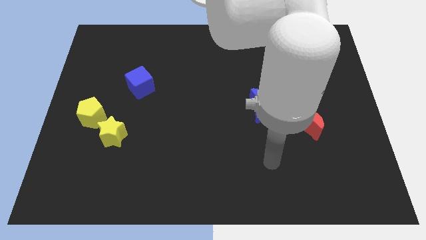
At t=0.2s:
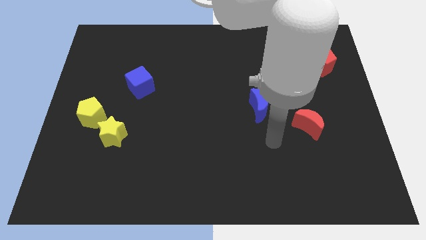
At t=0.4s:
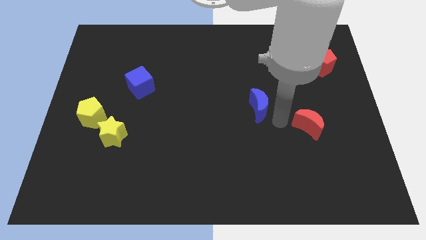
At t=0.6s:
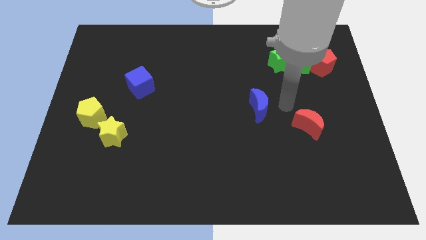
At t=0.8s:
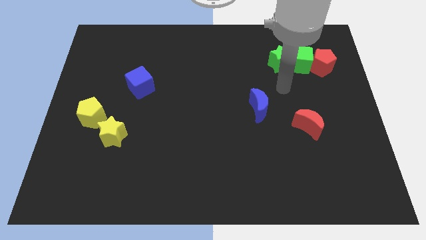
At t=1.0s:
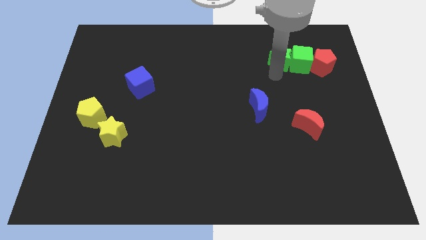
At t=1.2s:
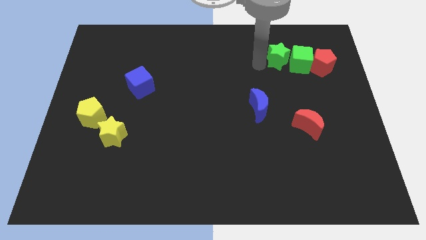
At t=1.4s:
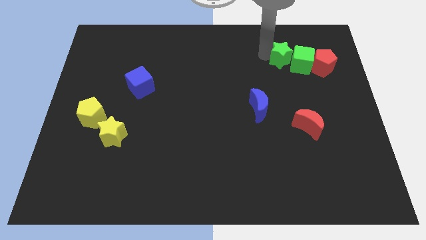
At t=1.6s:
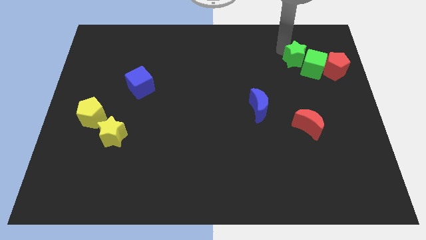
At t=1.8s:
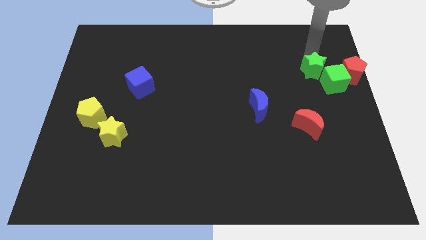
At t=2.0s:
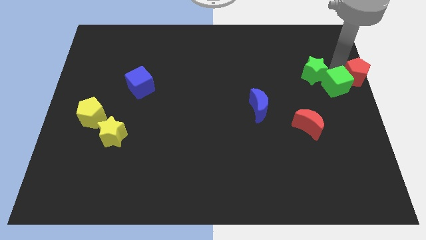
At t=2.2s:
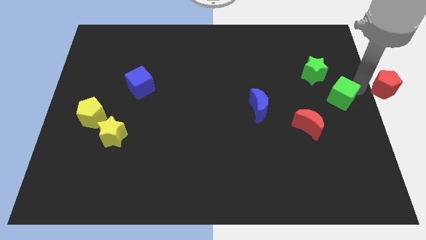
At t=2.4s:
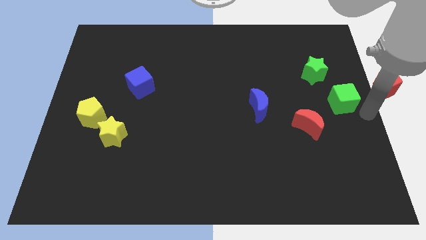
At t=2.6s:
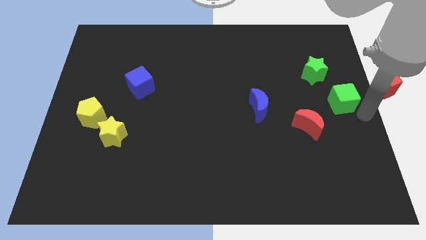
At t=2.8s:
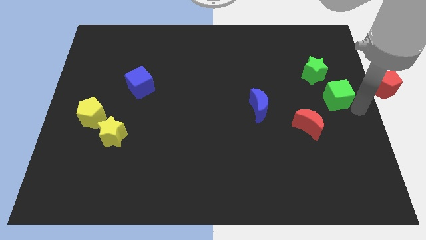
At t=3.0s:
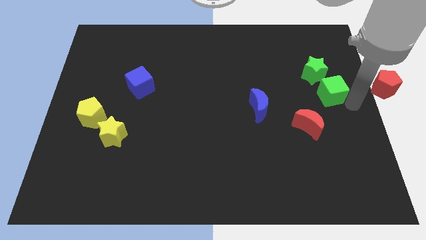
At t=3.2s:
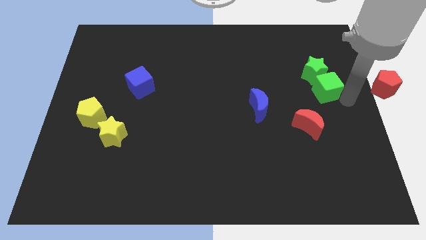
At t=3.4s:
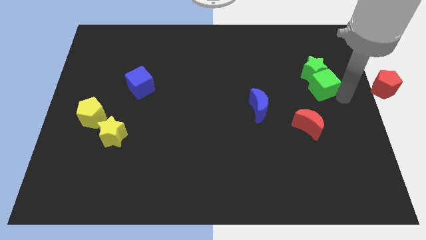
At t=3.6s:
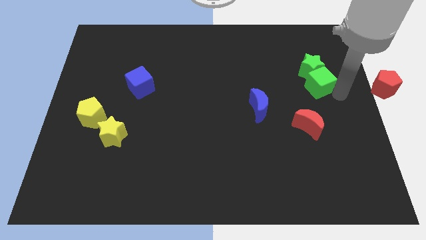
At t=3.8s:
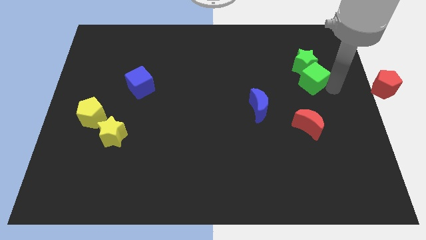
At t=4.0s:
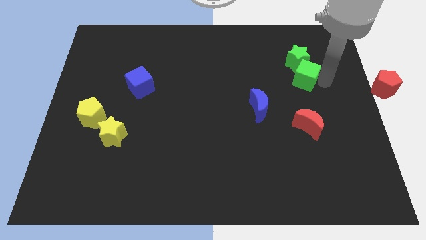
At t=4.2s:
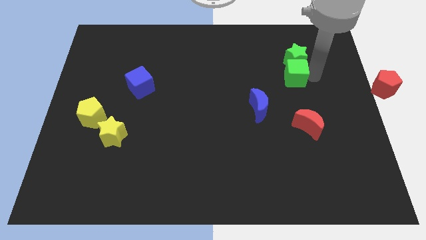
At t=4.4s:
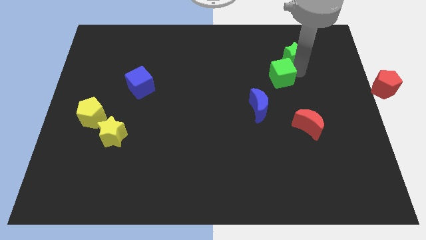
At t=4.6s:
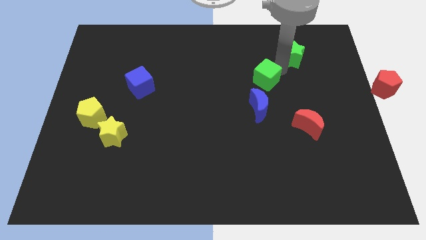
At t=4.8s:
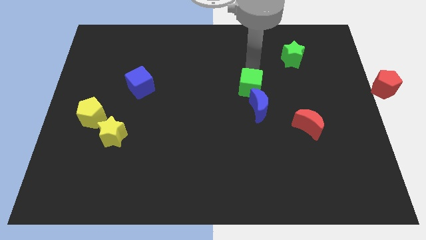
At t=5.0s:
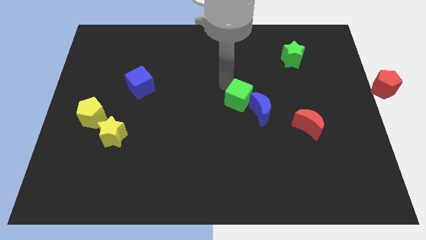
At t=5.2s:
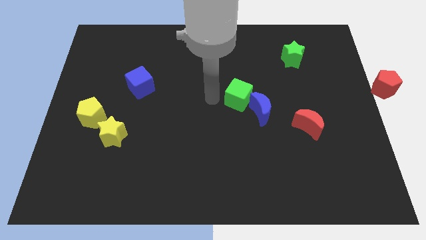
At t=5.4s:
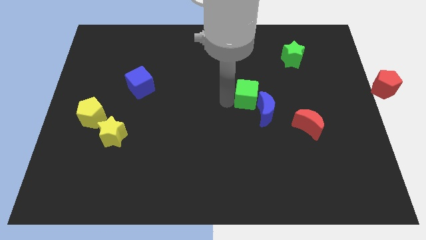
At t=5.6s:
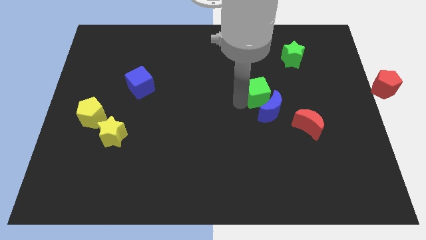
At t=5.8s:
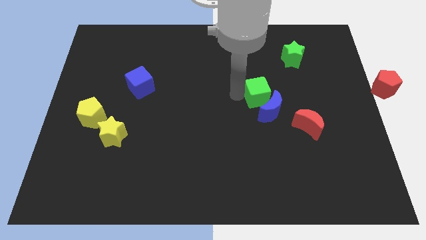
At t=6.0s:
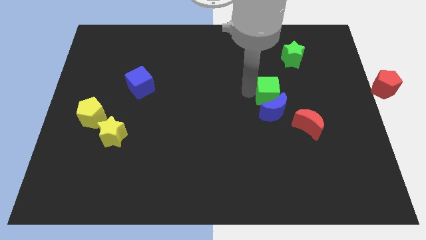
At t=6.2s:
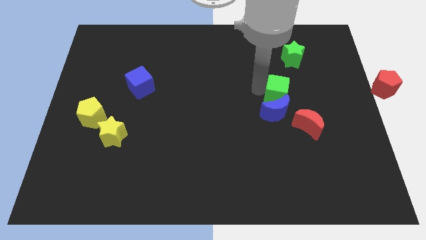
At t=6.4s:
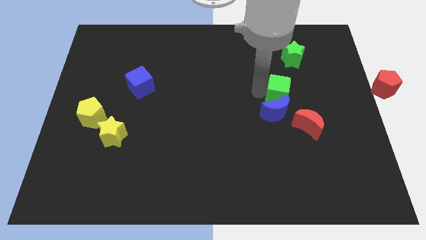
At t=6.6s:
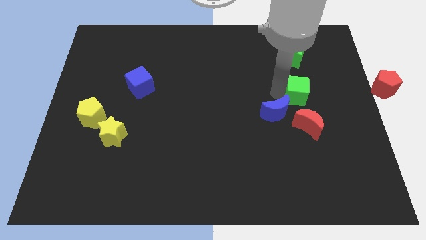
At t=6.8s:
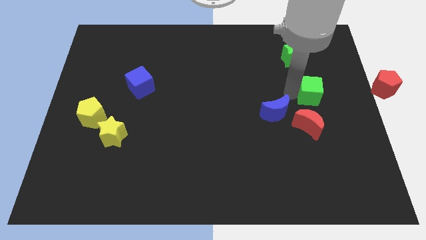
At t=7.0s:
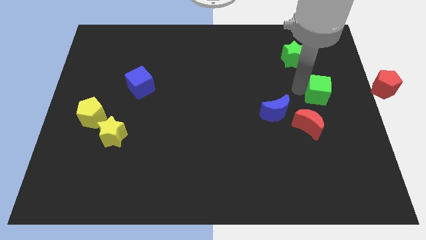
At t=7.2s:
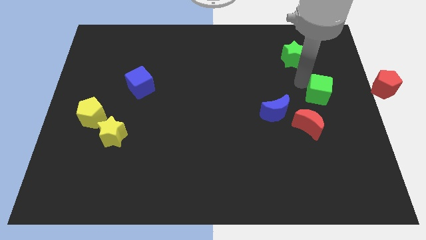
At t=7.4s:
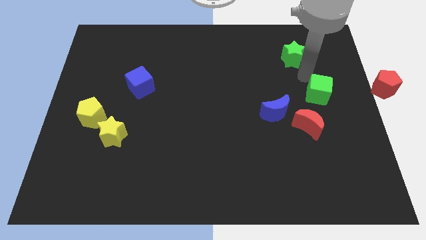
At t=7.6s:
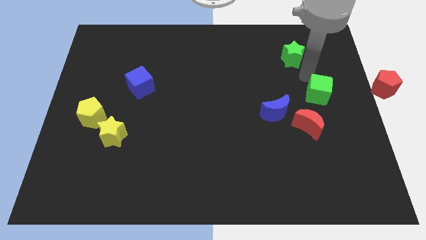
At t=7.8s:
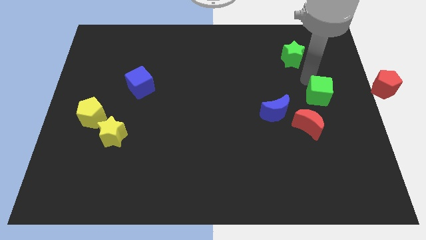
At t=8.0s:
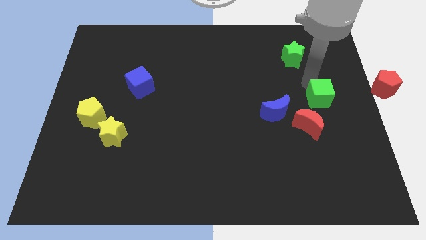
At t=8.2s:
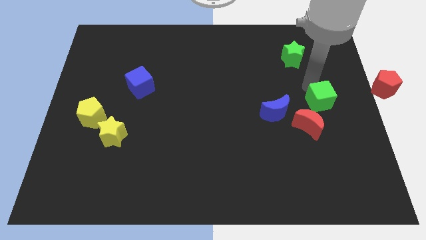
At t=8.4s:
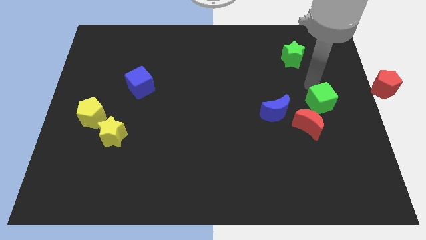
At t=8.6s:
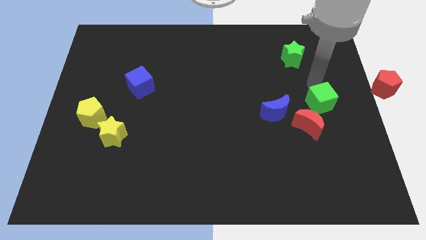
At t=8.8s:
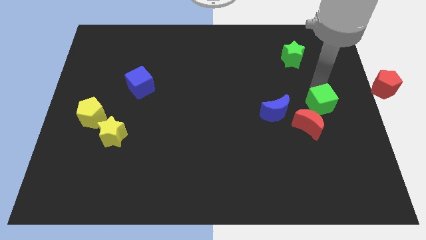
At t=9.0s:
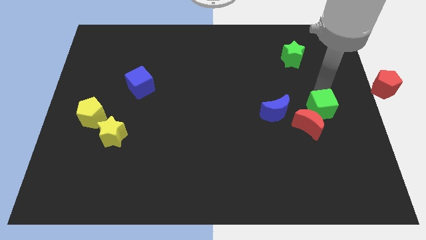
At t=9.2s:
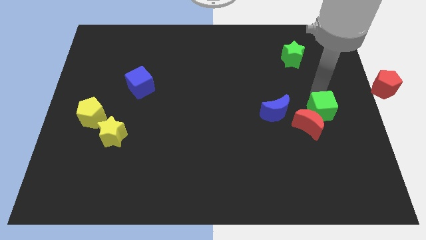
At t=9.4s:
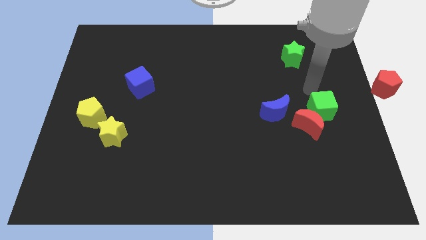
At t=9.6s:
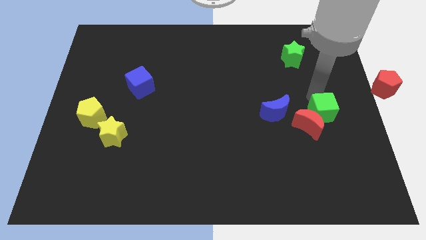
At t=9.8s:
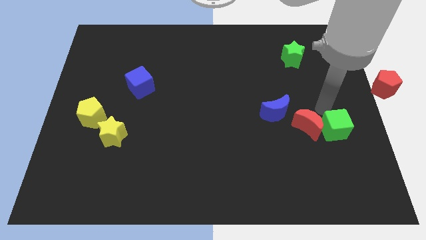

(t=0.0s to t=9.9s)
move the green cube downwards

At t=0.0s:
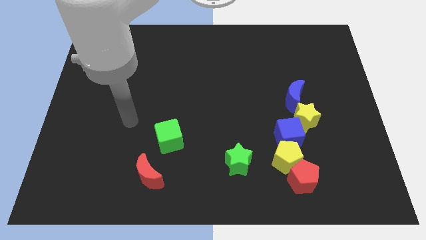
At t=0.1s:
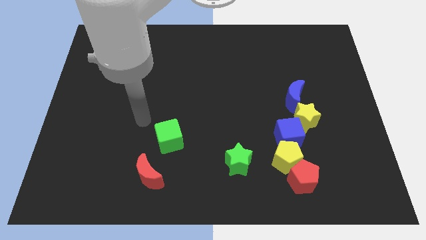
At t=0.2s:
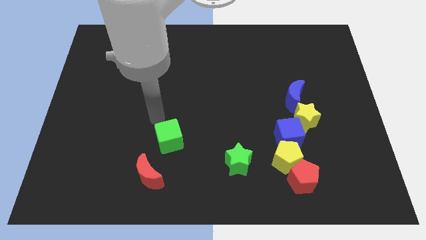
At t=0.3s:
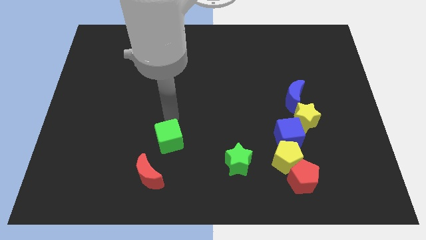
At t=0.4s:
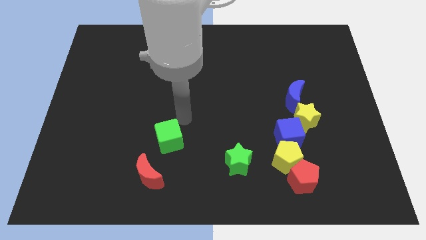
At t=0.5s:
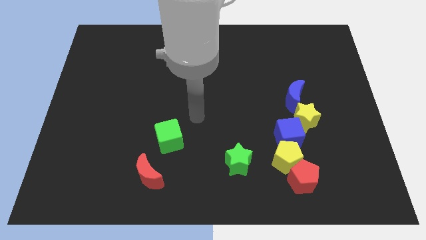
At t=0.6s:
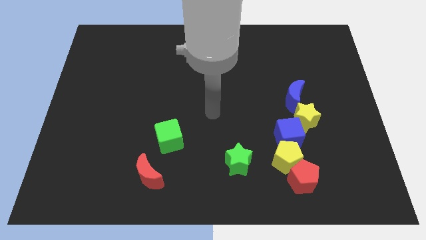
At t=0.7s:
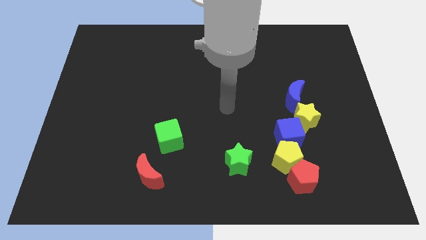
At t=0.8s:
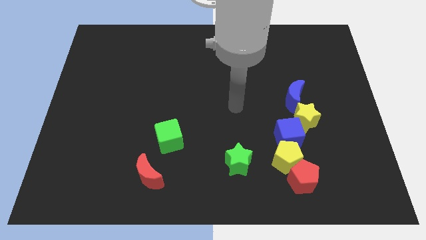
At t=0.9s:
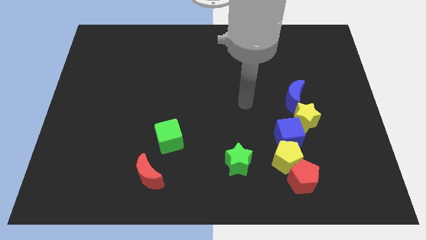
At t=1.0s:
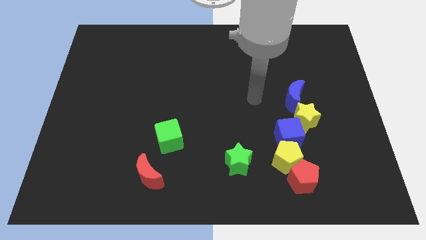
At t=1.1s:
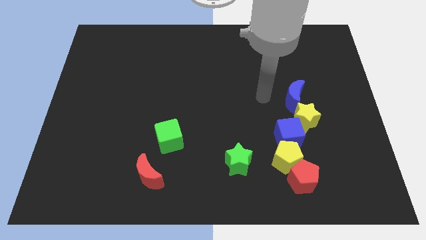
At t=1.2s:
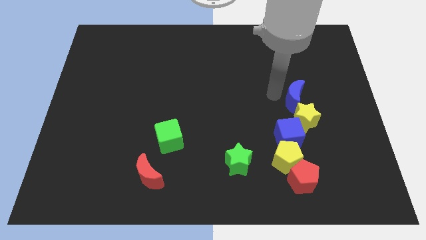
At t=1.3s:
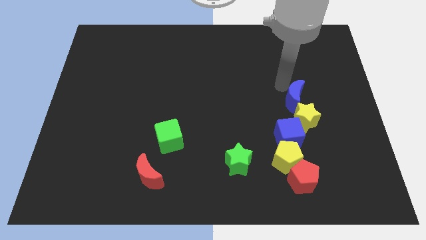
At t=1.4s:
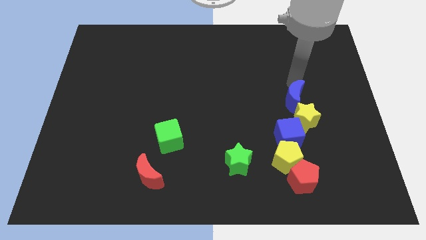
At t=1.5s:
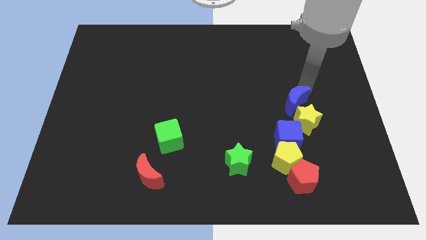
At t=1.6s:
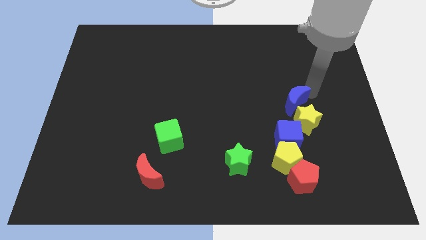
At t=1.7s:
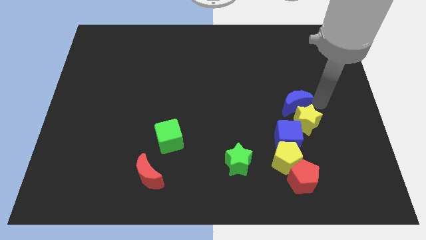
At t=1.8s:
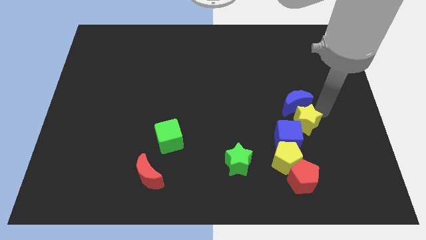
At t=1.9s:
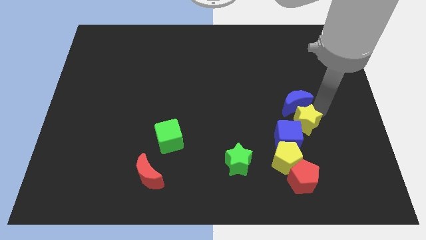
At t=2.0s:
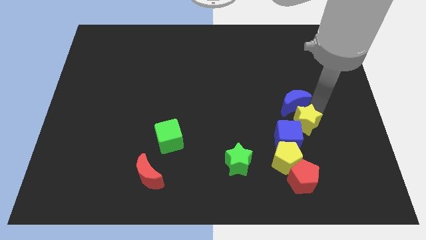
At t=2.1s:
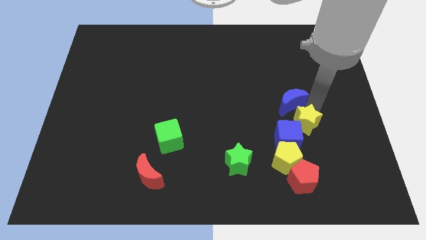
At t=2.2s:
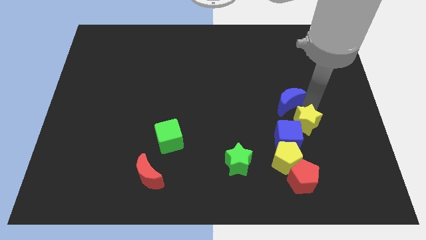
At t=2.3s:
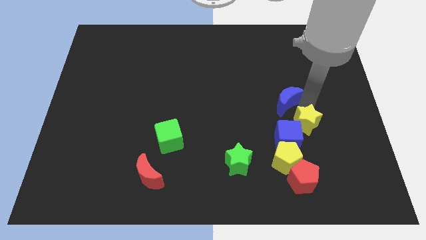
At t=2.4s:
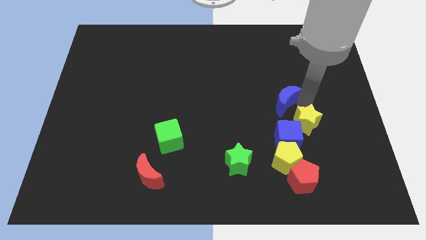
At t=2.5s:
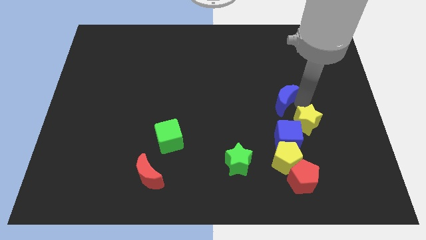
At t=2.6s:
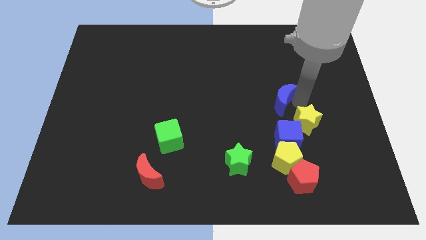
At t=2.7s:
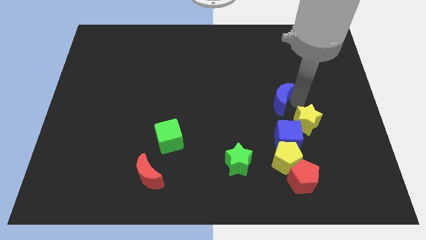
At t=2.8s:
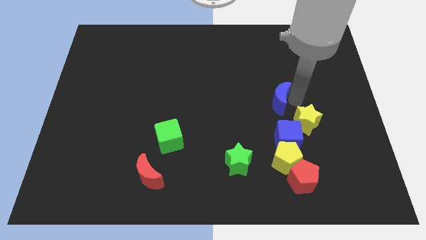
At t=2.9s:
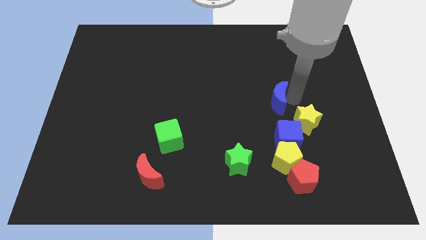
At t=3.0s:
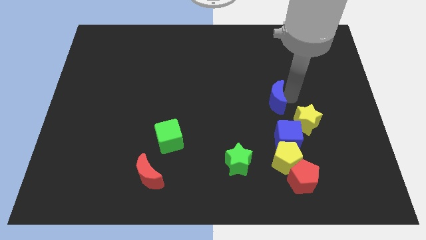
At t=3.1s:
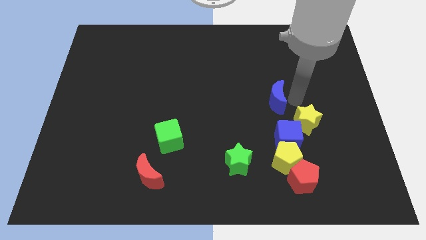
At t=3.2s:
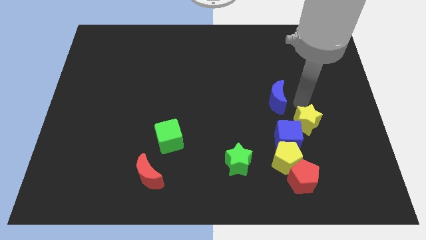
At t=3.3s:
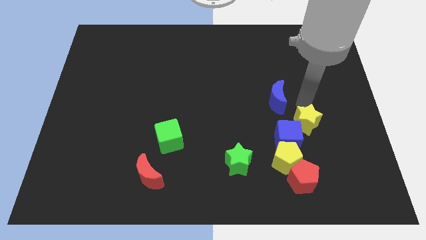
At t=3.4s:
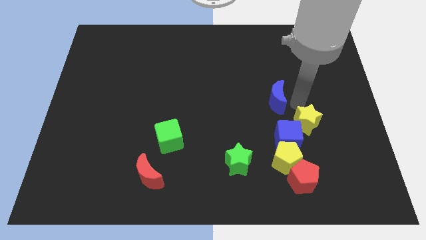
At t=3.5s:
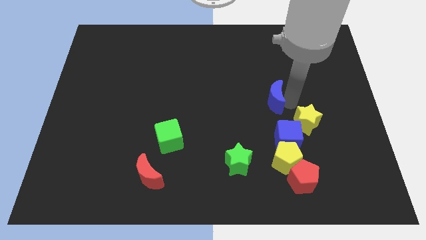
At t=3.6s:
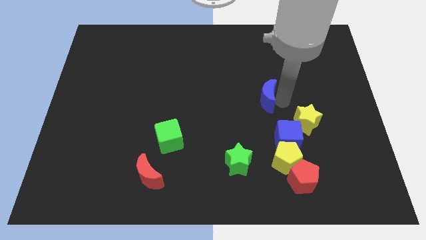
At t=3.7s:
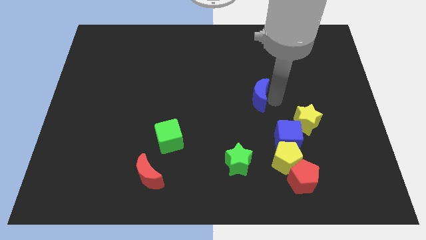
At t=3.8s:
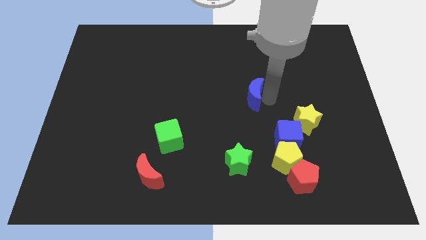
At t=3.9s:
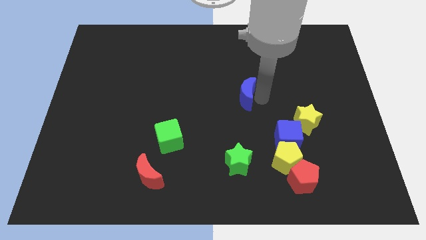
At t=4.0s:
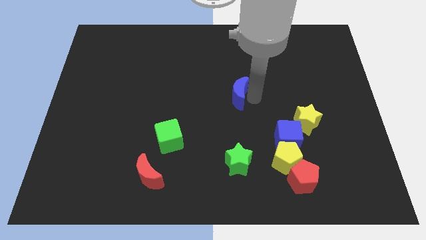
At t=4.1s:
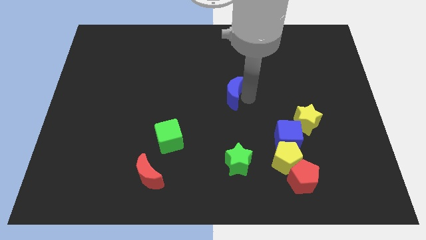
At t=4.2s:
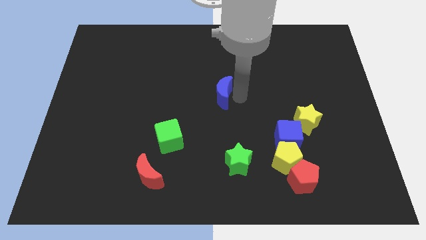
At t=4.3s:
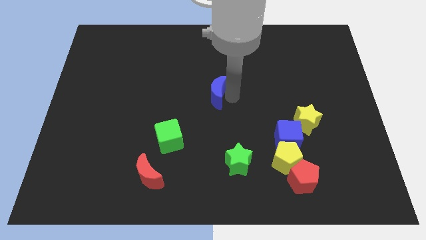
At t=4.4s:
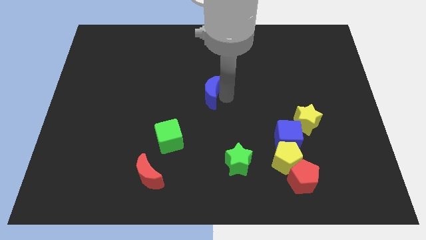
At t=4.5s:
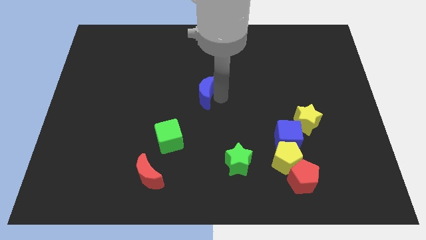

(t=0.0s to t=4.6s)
push the blue moon left
